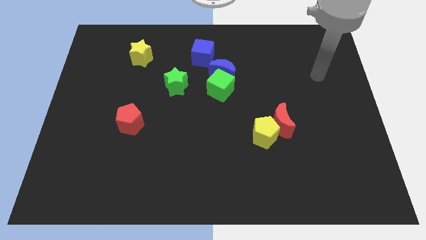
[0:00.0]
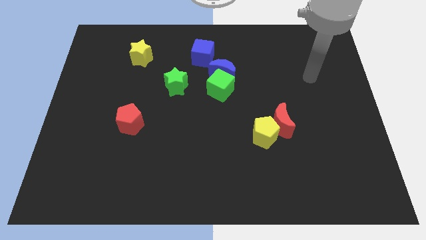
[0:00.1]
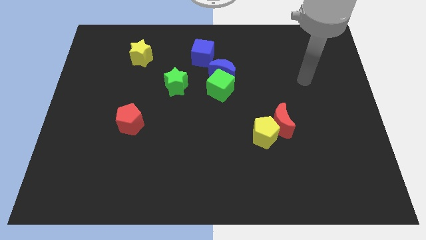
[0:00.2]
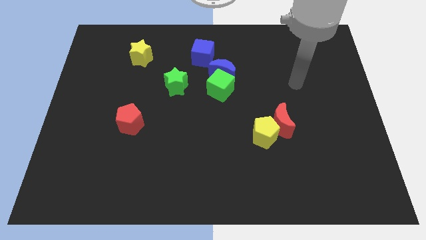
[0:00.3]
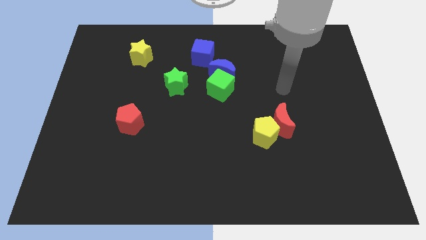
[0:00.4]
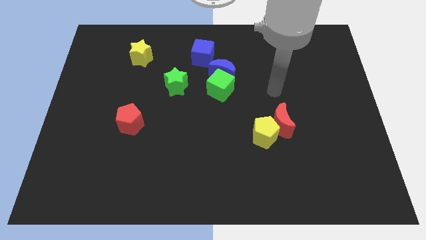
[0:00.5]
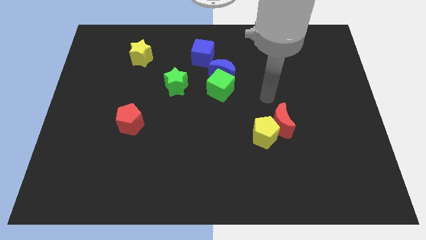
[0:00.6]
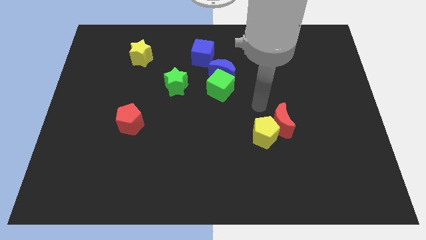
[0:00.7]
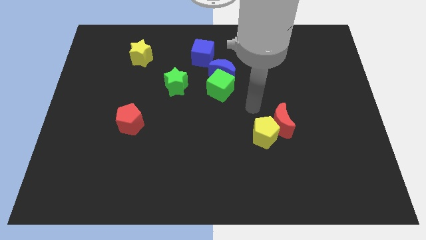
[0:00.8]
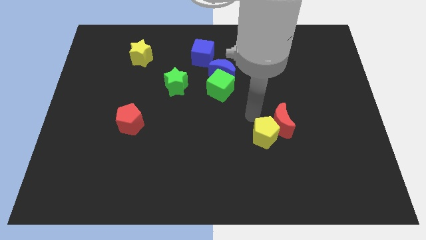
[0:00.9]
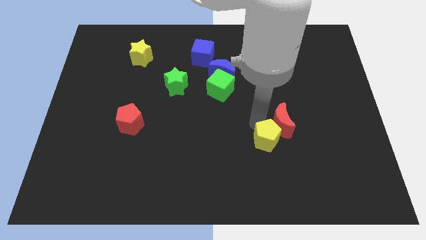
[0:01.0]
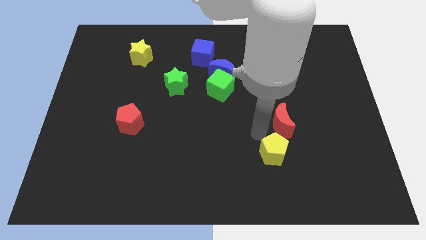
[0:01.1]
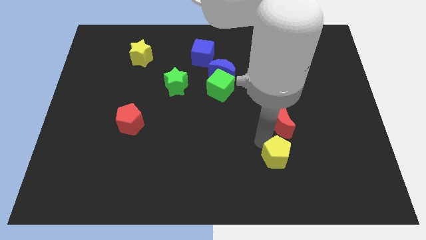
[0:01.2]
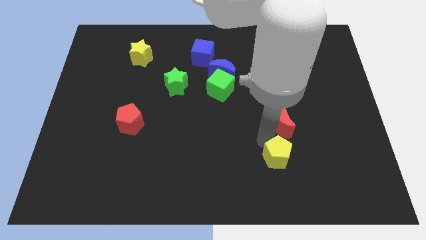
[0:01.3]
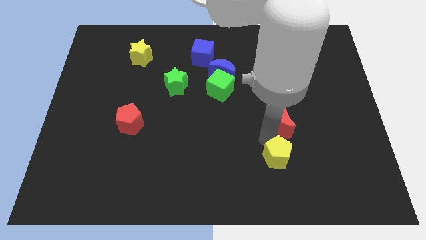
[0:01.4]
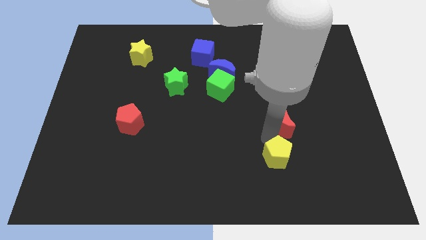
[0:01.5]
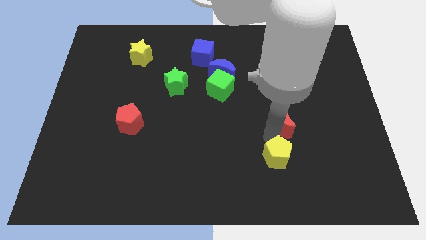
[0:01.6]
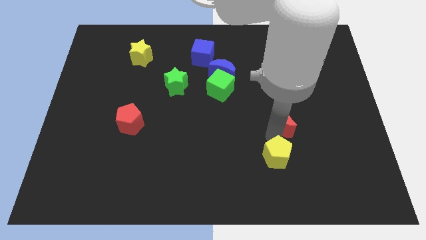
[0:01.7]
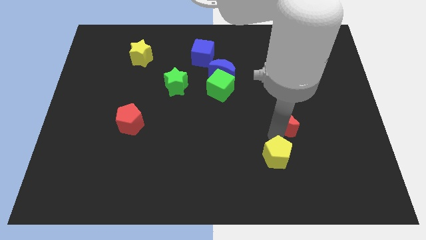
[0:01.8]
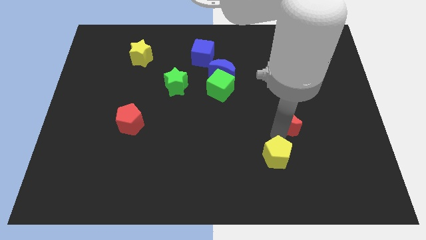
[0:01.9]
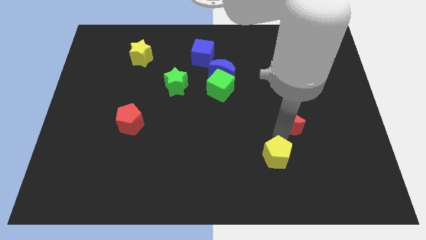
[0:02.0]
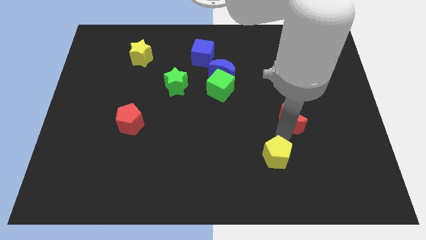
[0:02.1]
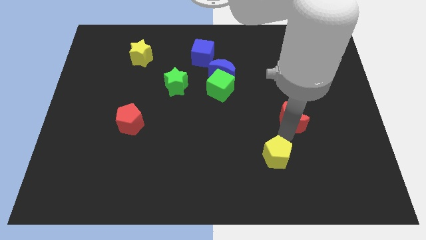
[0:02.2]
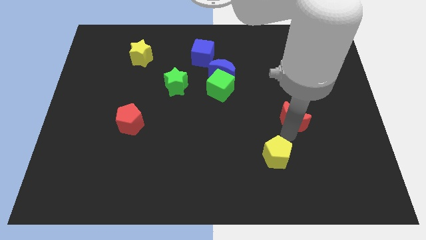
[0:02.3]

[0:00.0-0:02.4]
separate the red moon from the yellow pentagon

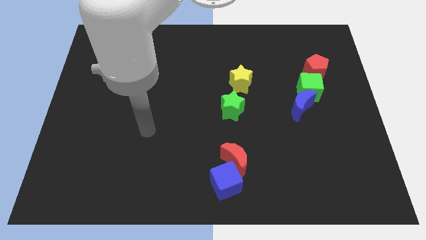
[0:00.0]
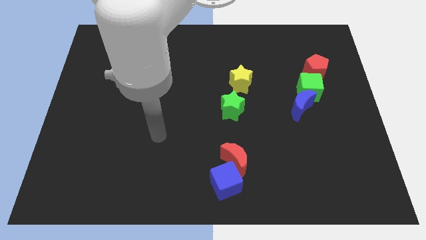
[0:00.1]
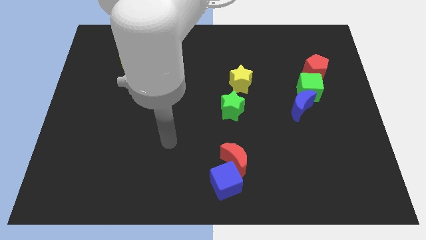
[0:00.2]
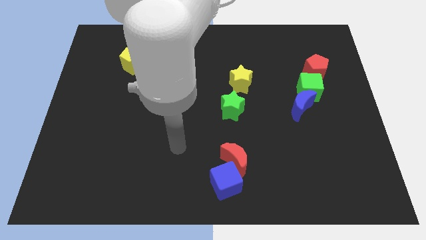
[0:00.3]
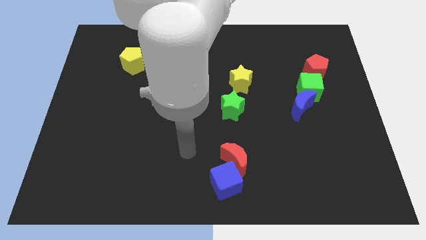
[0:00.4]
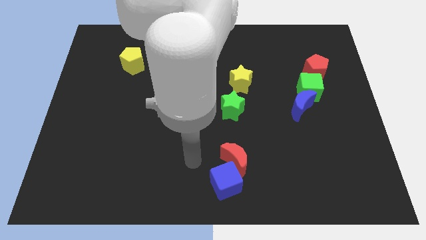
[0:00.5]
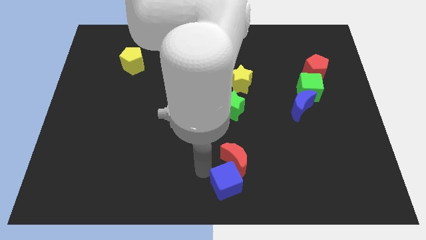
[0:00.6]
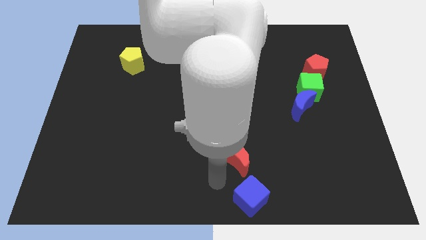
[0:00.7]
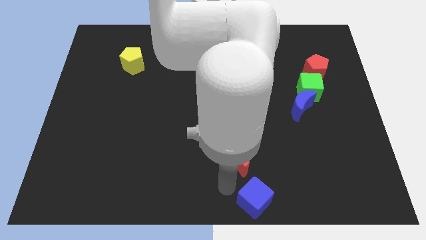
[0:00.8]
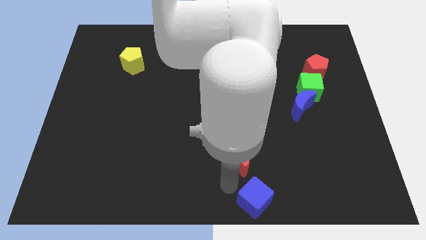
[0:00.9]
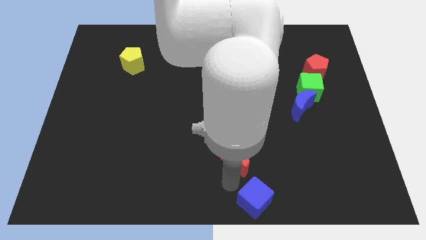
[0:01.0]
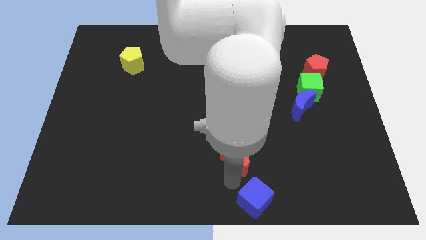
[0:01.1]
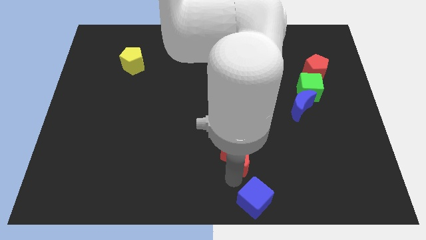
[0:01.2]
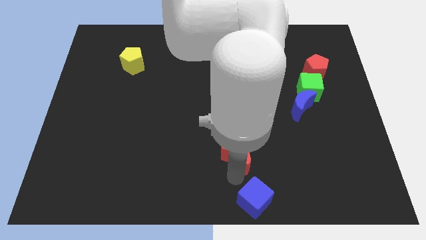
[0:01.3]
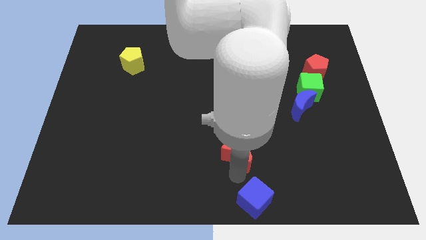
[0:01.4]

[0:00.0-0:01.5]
move the red moon away from the blue cube

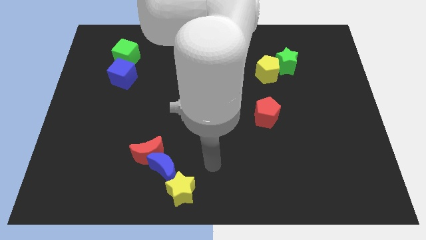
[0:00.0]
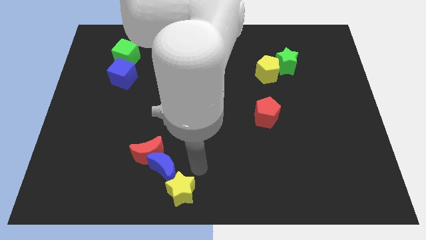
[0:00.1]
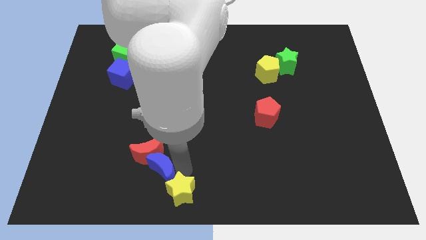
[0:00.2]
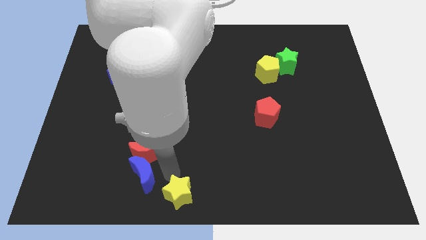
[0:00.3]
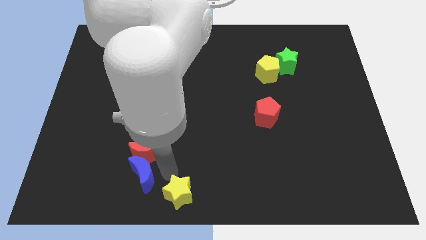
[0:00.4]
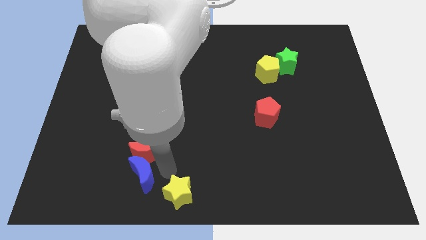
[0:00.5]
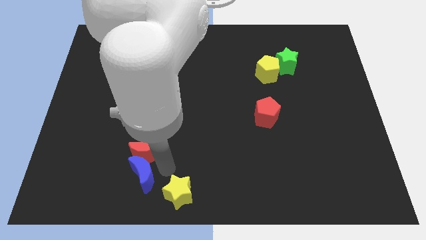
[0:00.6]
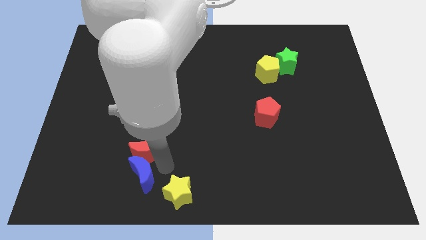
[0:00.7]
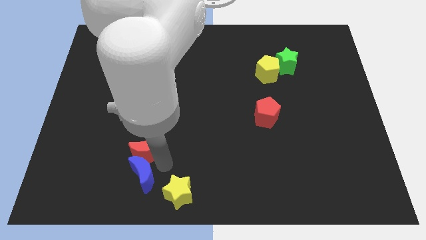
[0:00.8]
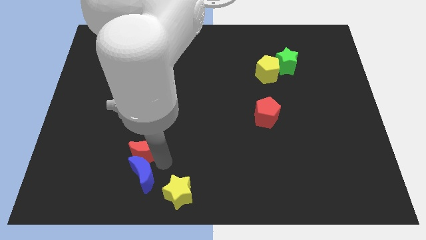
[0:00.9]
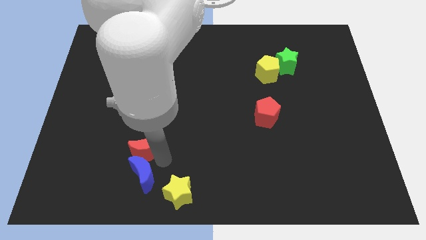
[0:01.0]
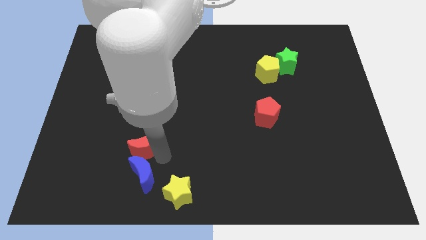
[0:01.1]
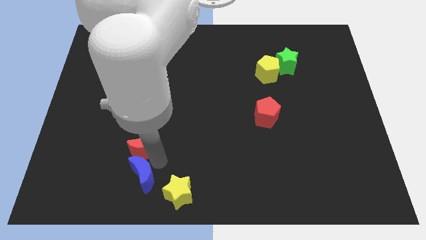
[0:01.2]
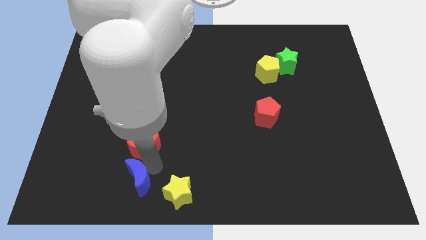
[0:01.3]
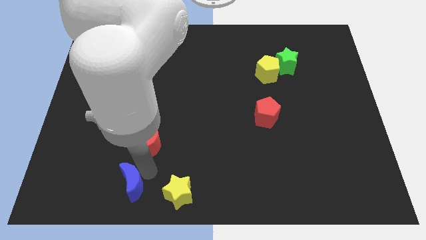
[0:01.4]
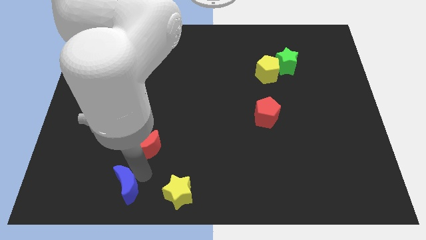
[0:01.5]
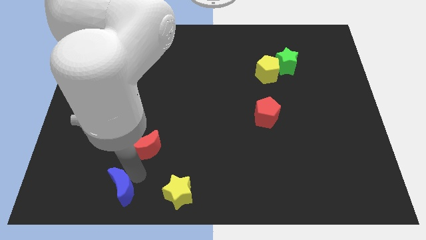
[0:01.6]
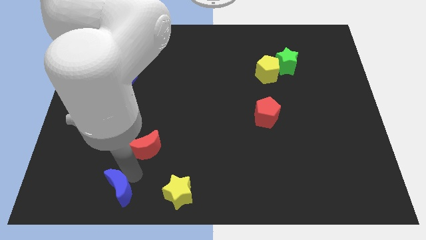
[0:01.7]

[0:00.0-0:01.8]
separate the red moon from the blue moon

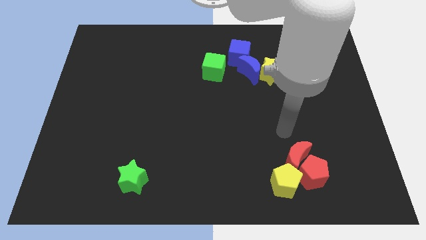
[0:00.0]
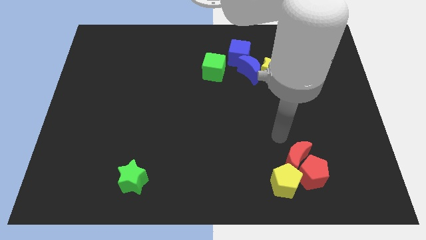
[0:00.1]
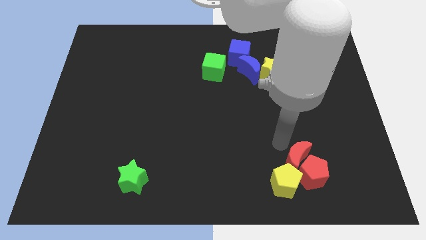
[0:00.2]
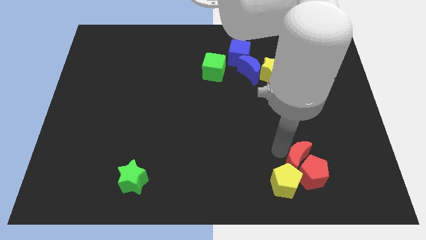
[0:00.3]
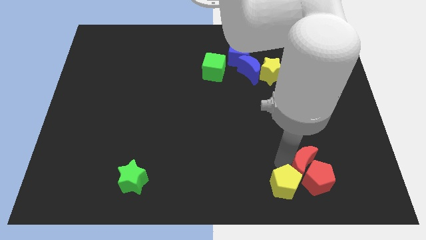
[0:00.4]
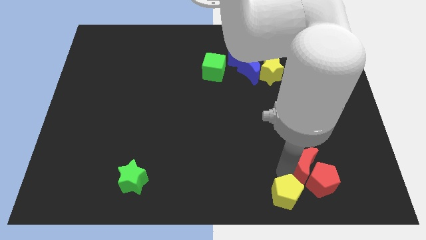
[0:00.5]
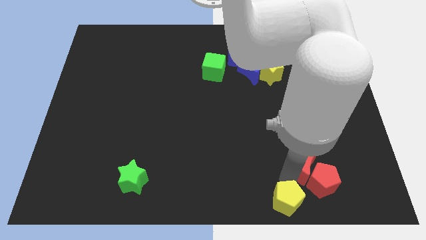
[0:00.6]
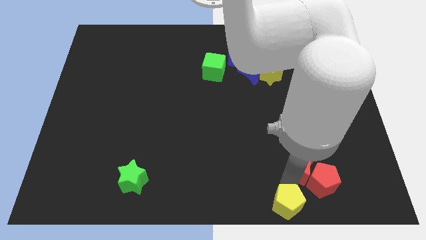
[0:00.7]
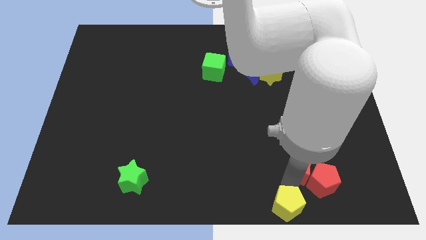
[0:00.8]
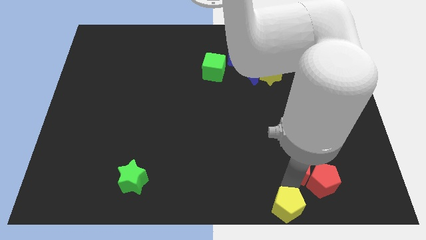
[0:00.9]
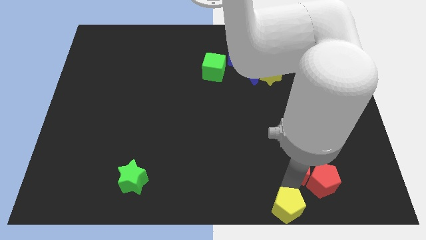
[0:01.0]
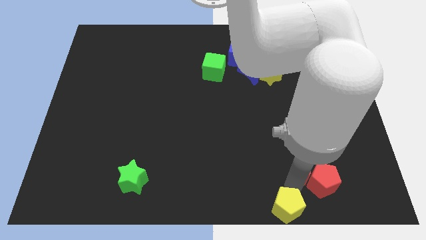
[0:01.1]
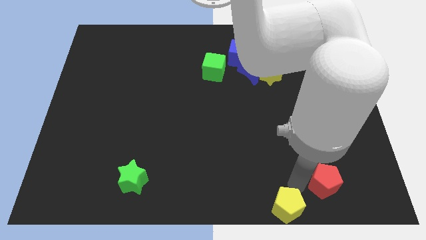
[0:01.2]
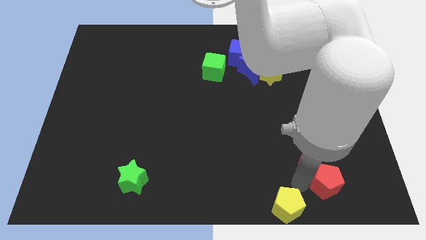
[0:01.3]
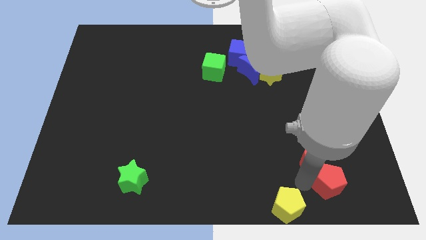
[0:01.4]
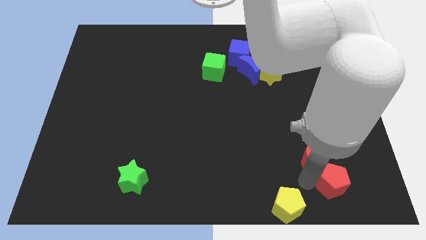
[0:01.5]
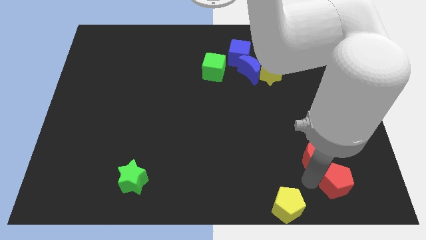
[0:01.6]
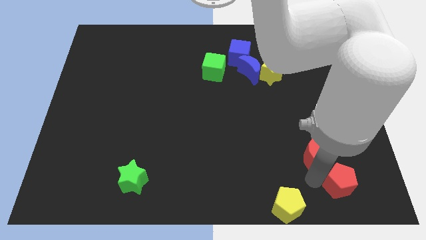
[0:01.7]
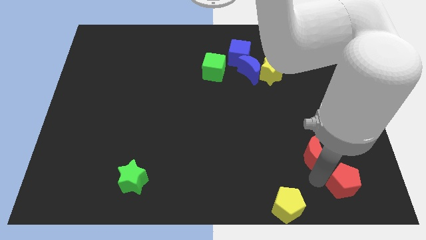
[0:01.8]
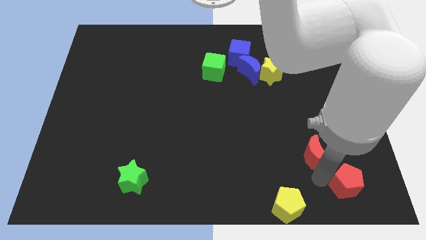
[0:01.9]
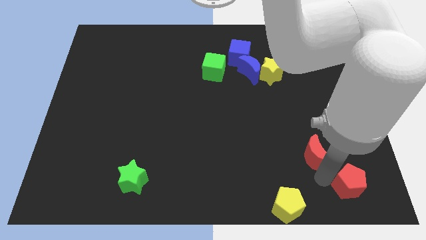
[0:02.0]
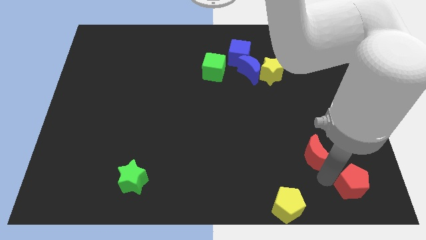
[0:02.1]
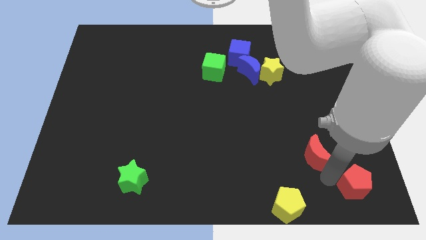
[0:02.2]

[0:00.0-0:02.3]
pull the red pentagon apart from the red moon and yellow pentagon

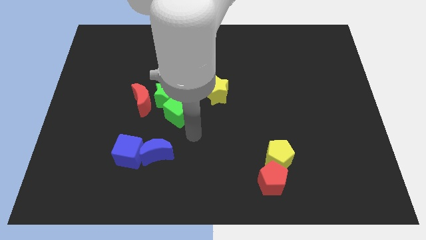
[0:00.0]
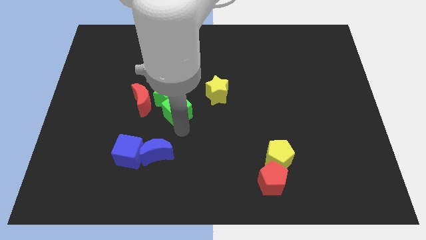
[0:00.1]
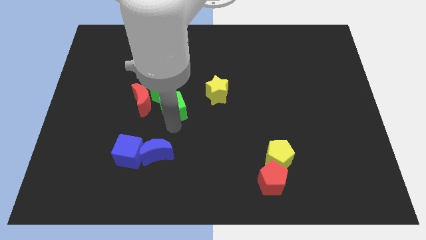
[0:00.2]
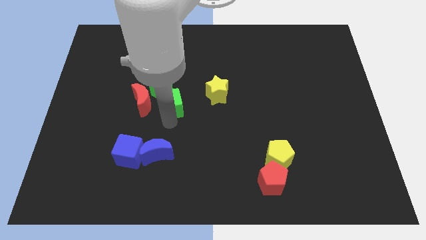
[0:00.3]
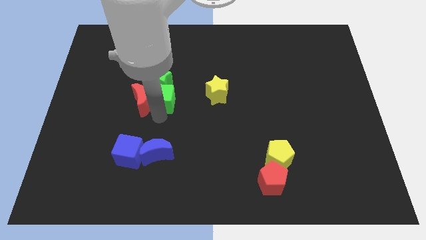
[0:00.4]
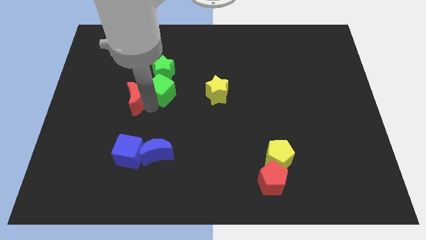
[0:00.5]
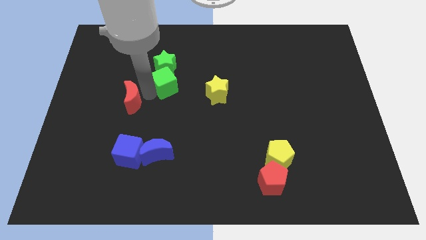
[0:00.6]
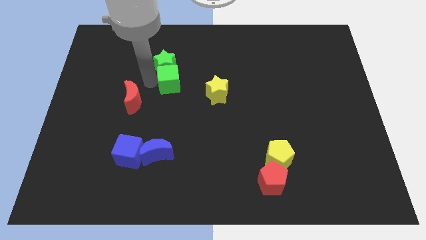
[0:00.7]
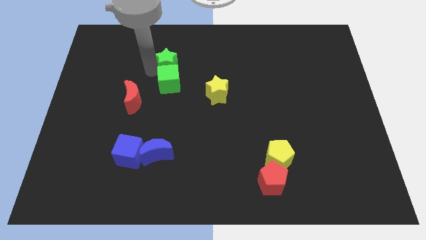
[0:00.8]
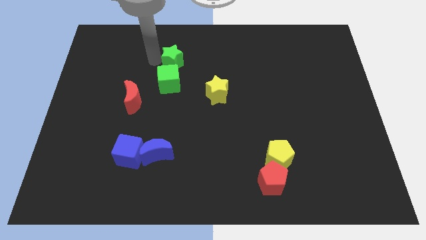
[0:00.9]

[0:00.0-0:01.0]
separate the green star from the green cube and red moon

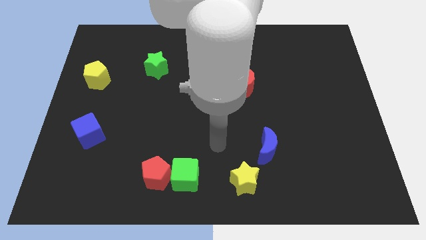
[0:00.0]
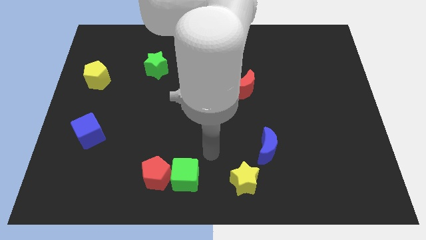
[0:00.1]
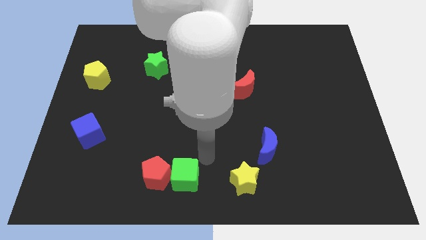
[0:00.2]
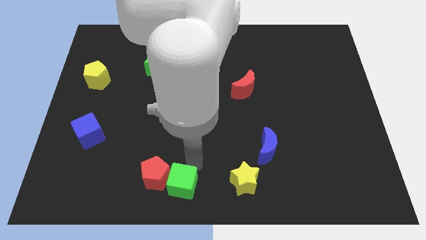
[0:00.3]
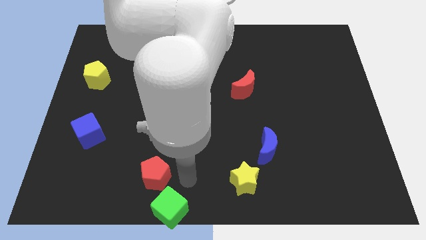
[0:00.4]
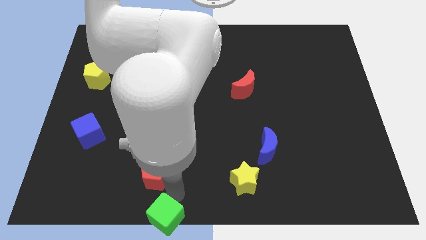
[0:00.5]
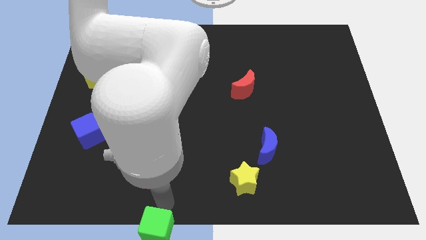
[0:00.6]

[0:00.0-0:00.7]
separate the red pentagon from the green cube
